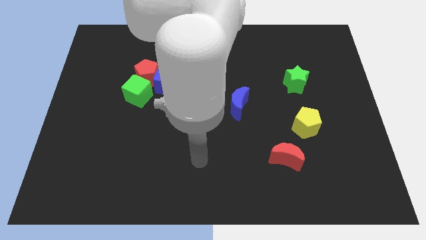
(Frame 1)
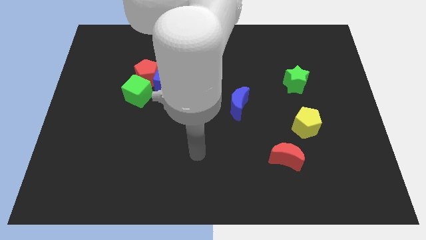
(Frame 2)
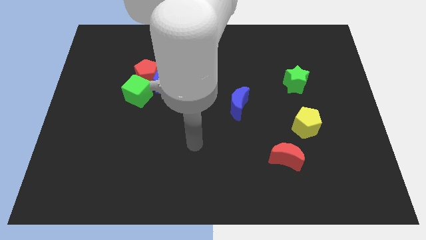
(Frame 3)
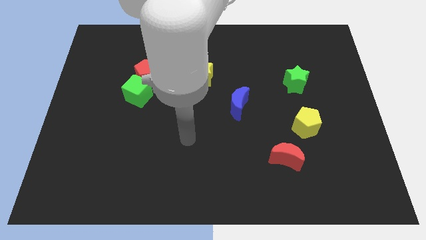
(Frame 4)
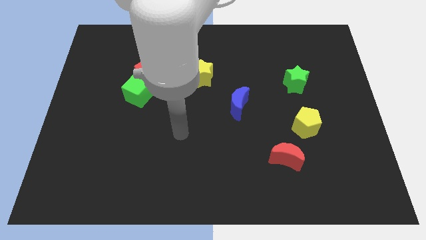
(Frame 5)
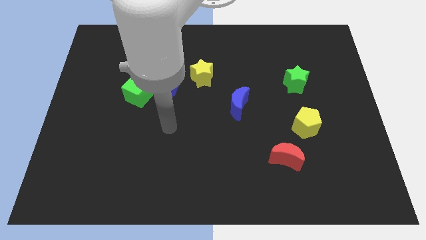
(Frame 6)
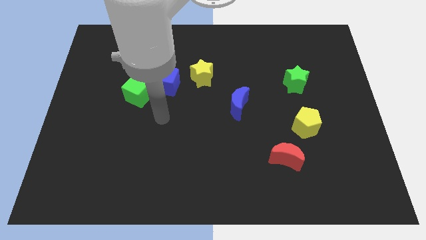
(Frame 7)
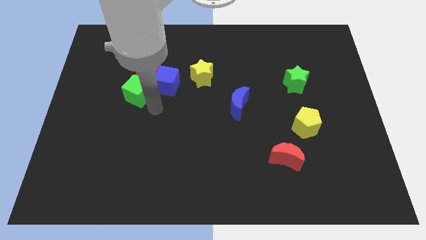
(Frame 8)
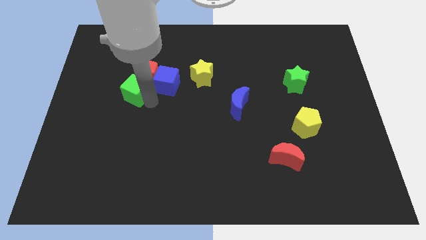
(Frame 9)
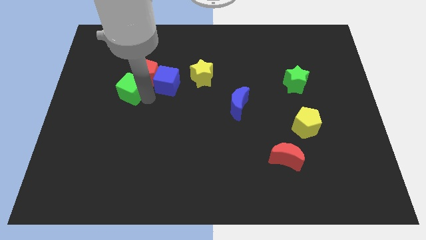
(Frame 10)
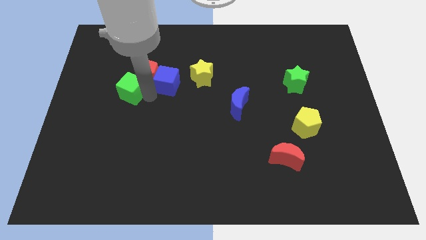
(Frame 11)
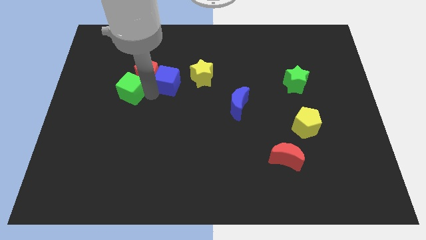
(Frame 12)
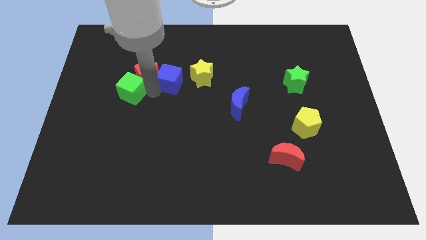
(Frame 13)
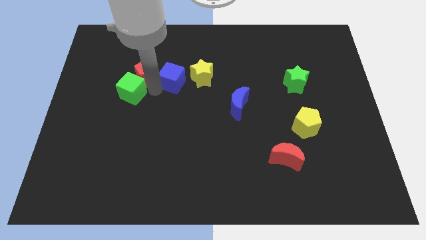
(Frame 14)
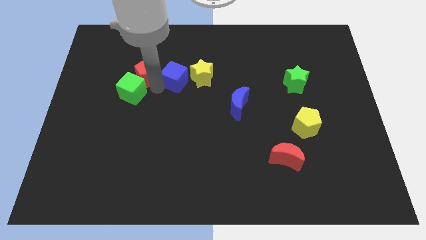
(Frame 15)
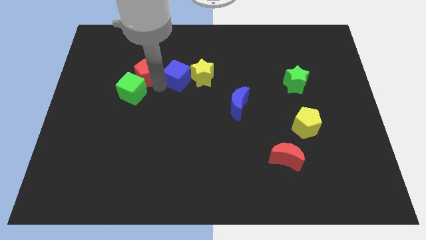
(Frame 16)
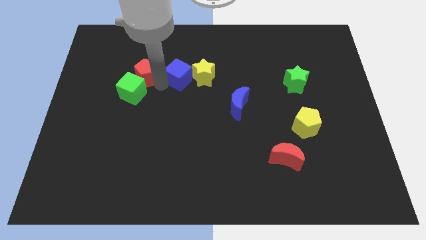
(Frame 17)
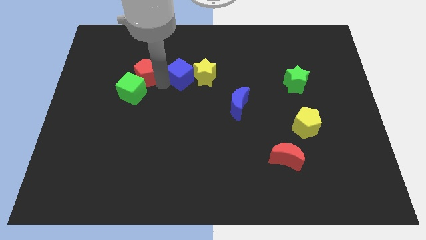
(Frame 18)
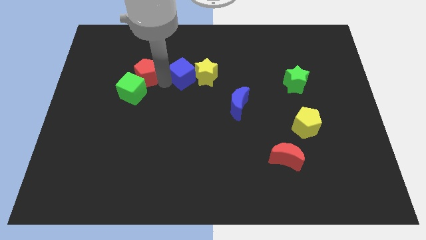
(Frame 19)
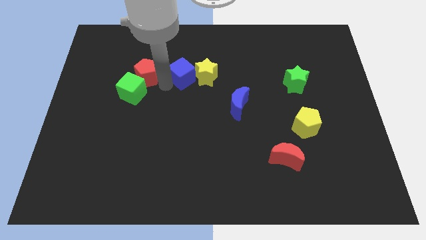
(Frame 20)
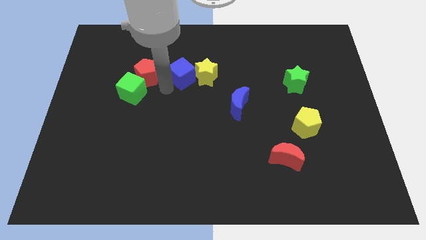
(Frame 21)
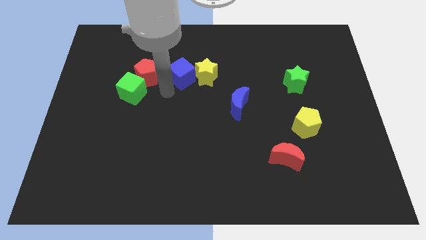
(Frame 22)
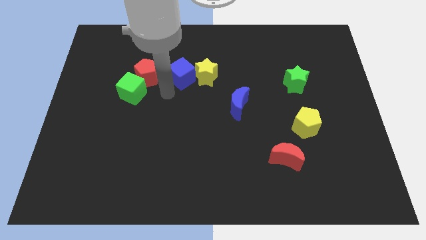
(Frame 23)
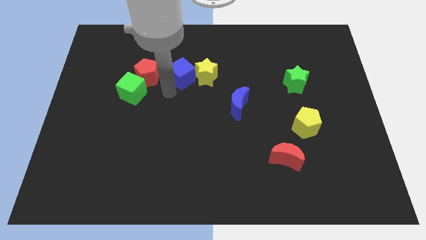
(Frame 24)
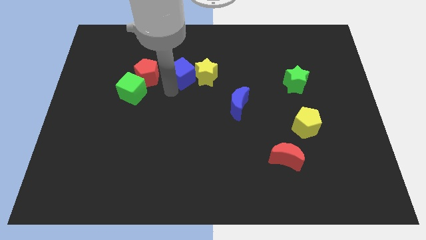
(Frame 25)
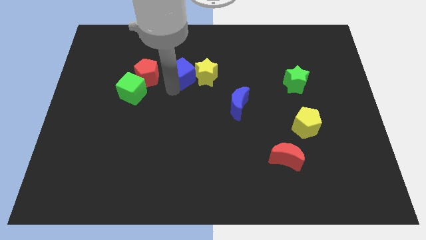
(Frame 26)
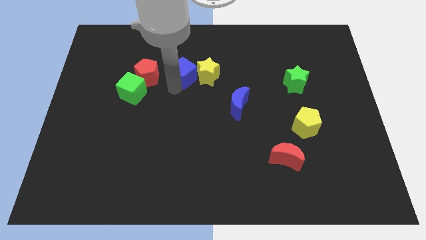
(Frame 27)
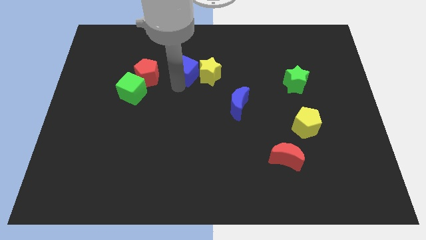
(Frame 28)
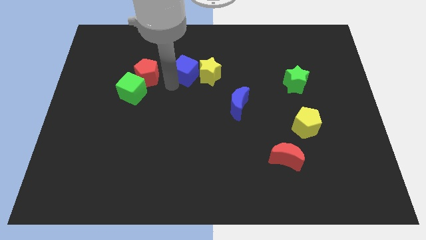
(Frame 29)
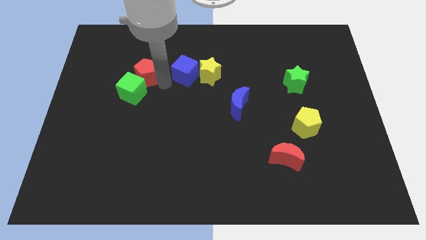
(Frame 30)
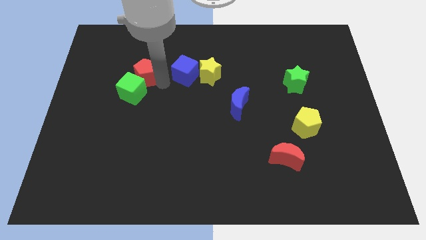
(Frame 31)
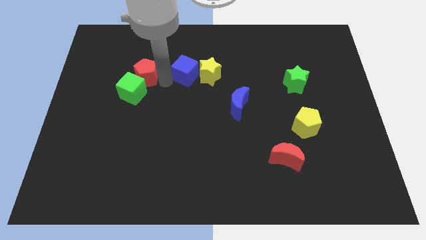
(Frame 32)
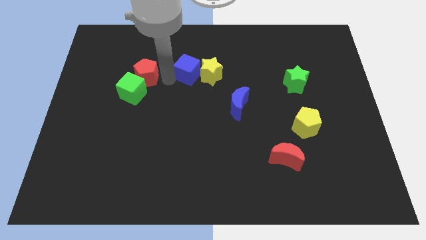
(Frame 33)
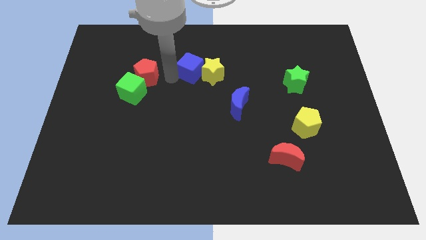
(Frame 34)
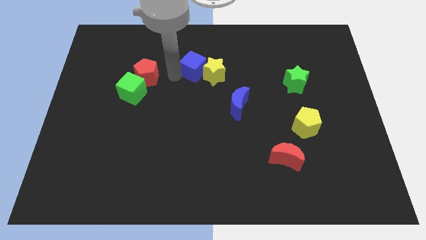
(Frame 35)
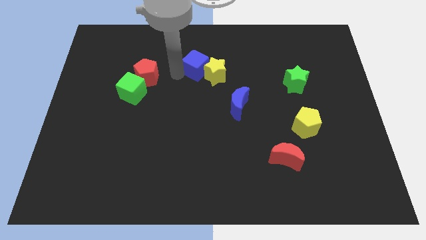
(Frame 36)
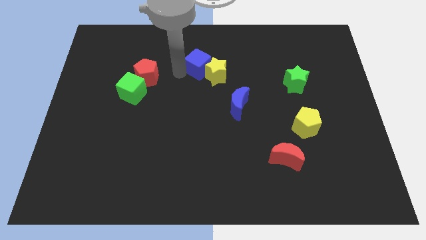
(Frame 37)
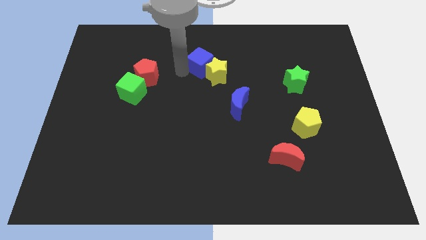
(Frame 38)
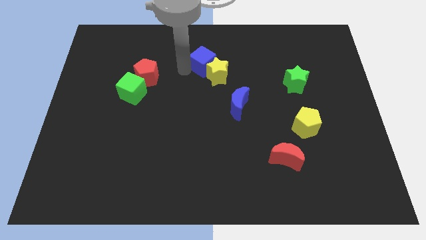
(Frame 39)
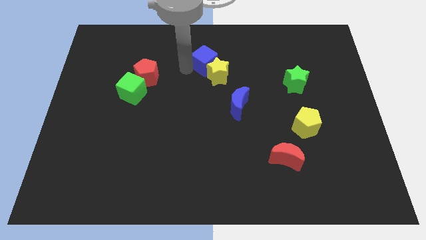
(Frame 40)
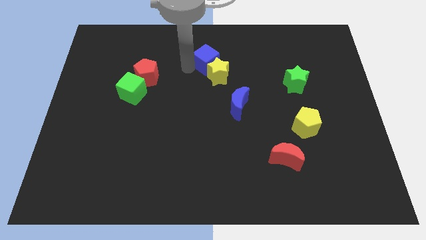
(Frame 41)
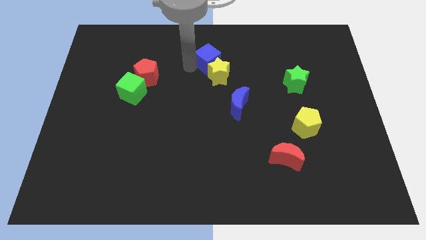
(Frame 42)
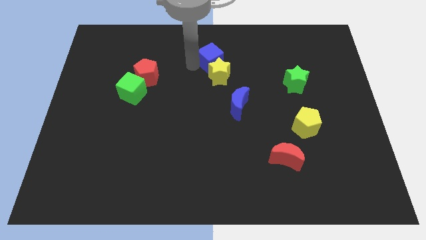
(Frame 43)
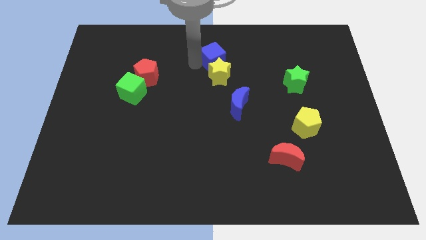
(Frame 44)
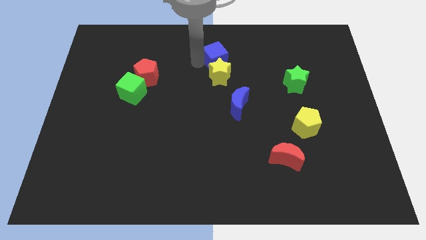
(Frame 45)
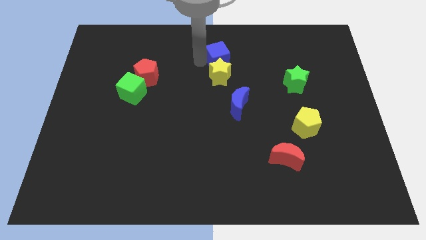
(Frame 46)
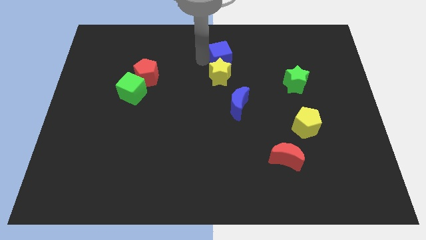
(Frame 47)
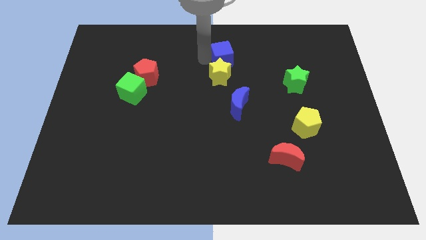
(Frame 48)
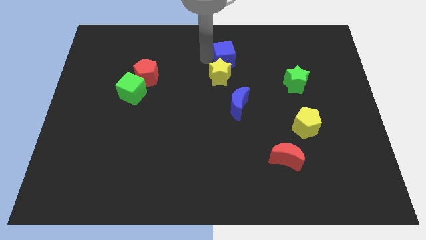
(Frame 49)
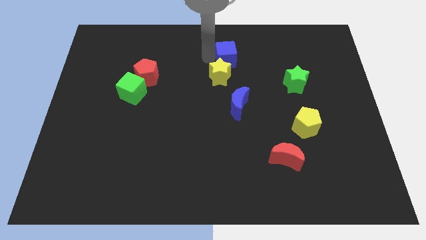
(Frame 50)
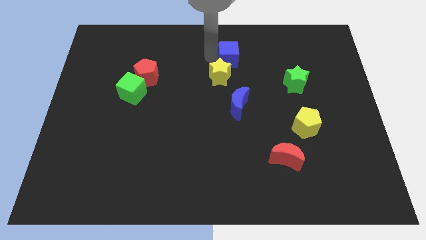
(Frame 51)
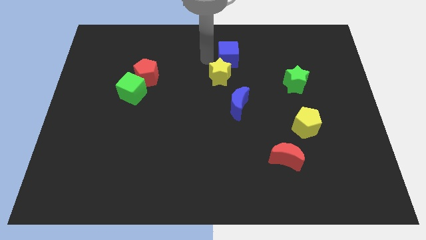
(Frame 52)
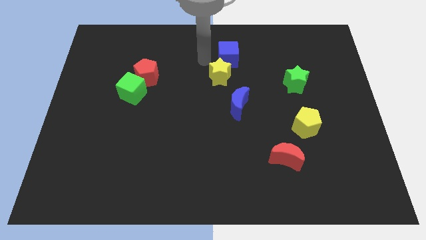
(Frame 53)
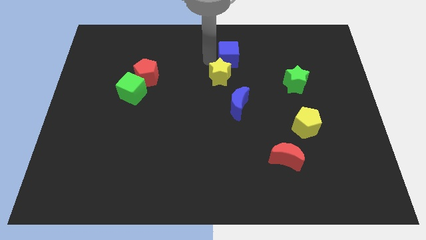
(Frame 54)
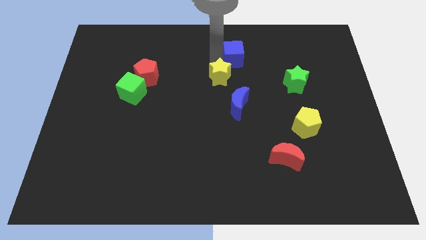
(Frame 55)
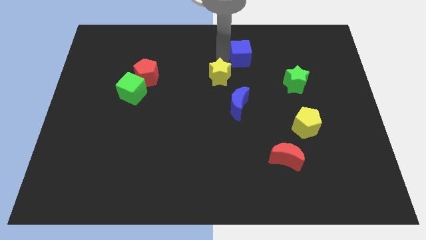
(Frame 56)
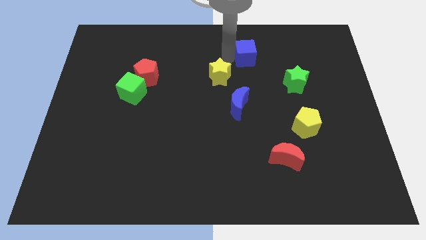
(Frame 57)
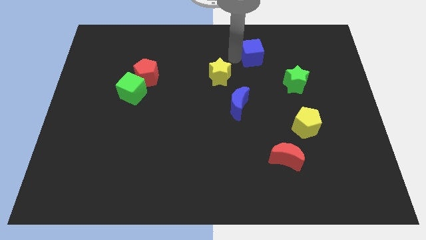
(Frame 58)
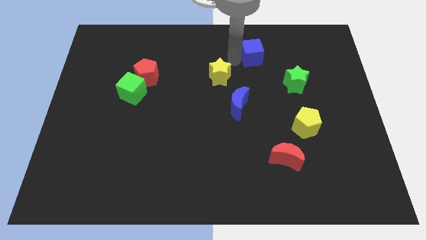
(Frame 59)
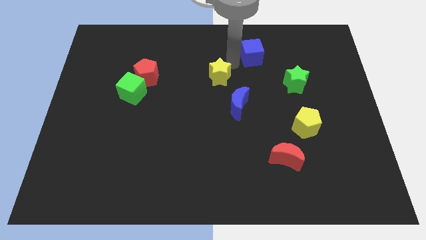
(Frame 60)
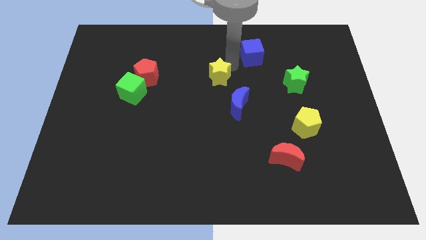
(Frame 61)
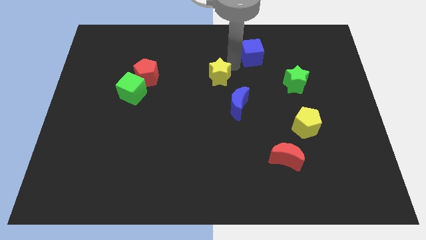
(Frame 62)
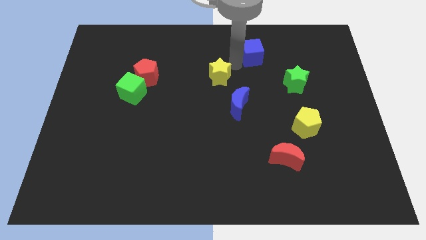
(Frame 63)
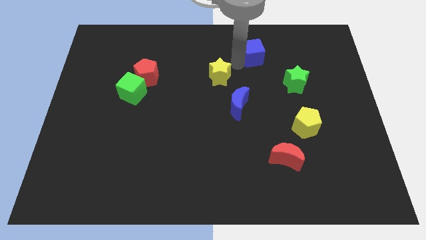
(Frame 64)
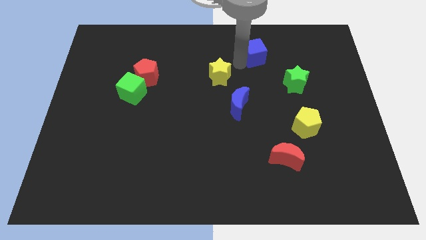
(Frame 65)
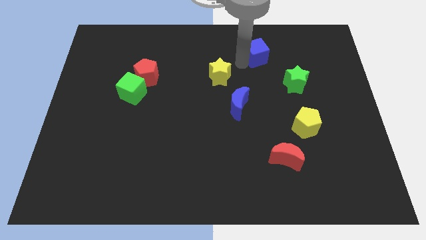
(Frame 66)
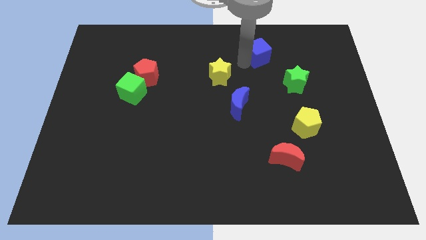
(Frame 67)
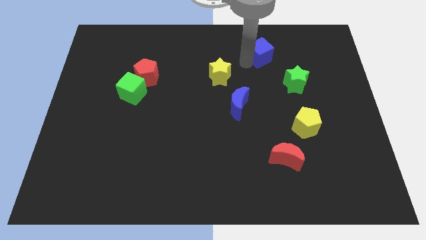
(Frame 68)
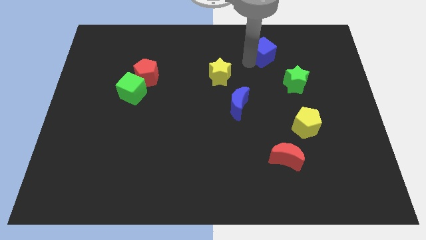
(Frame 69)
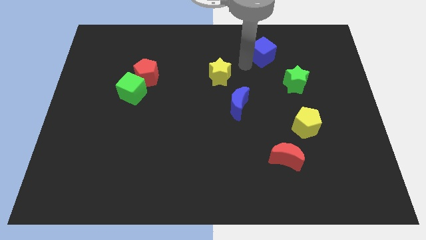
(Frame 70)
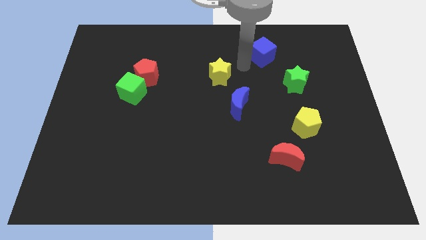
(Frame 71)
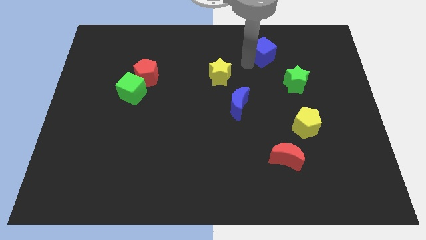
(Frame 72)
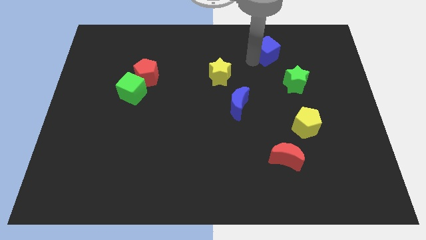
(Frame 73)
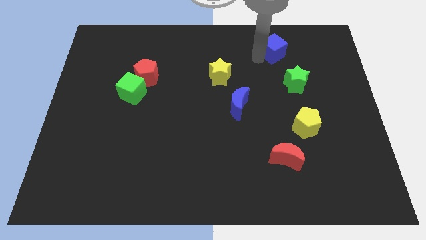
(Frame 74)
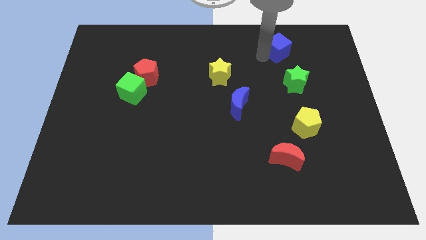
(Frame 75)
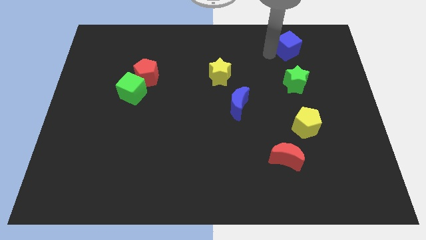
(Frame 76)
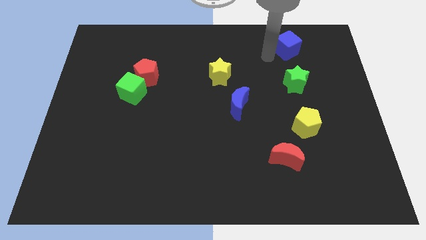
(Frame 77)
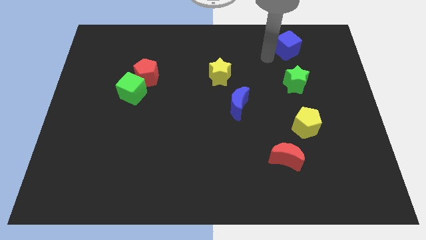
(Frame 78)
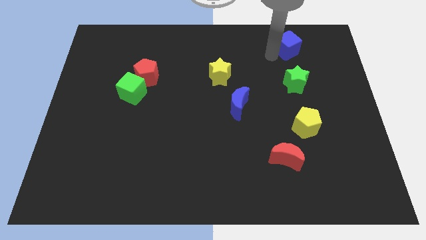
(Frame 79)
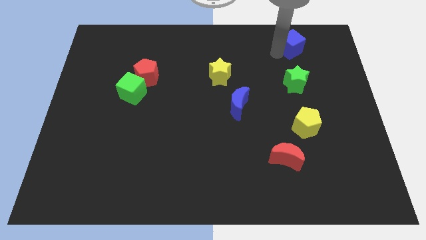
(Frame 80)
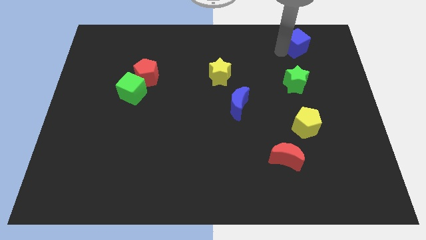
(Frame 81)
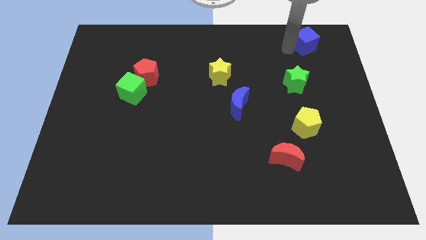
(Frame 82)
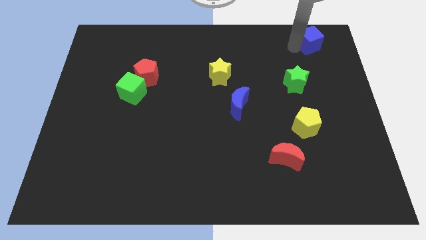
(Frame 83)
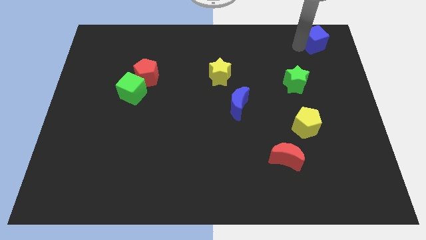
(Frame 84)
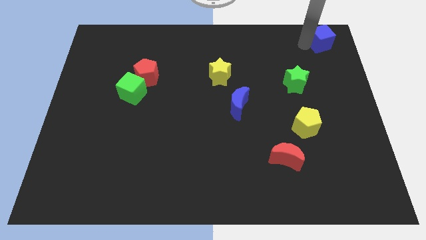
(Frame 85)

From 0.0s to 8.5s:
move the blue cube to the upper right corner
